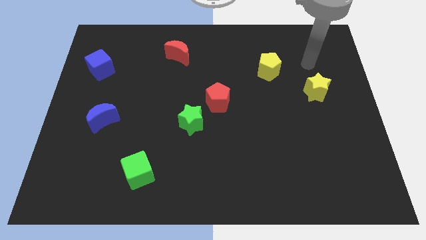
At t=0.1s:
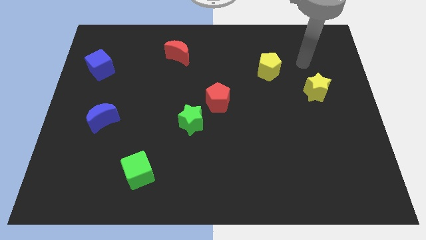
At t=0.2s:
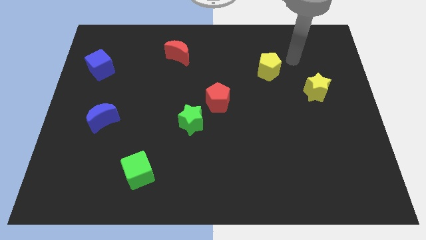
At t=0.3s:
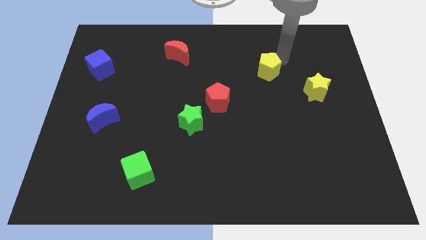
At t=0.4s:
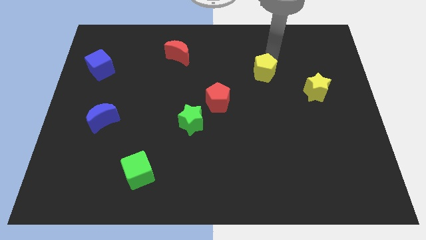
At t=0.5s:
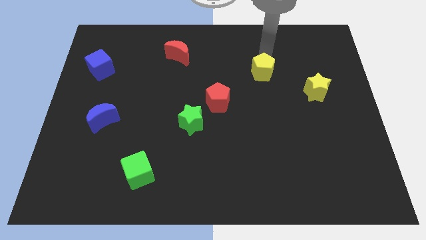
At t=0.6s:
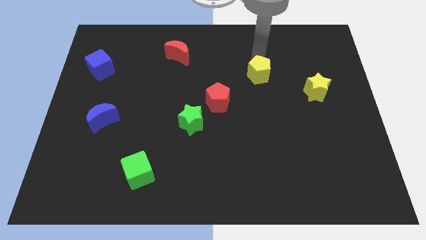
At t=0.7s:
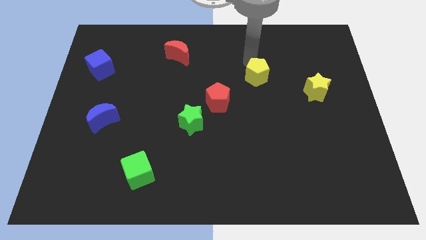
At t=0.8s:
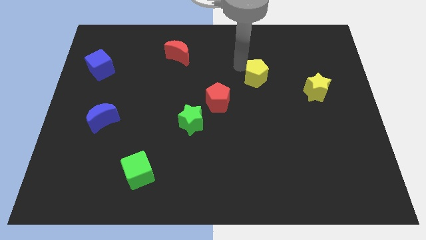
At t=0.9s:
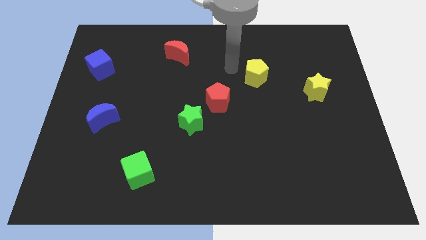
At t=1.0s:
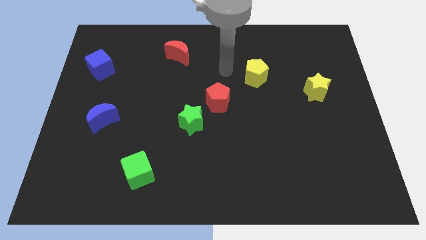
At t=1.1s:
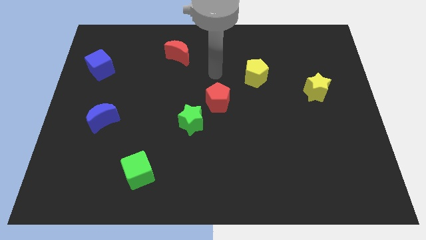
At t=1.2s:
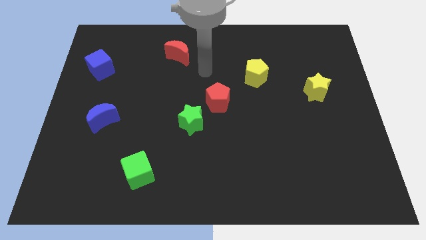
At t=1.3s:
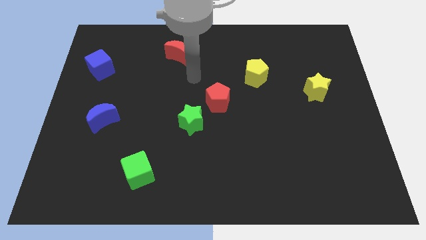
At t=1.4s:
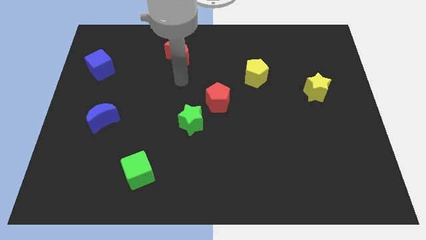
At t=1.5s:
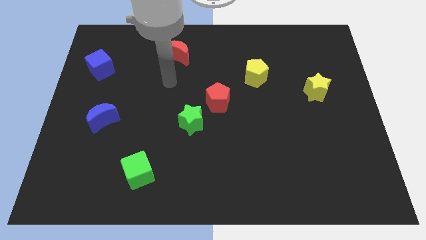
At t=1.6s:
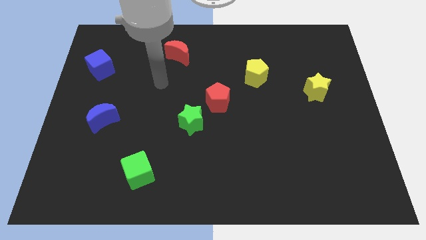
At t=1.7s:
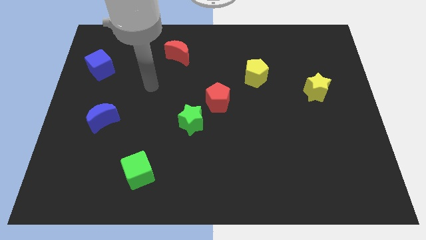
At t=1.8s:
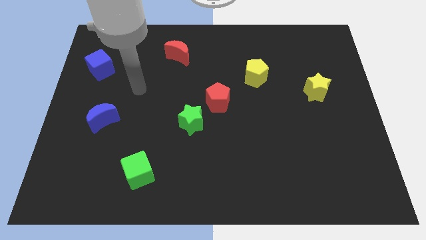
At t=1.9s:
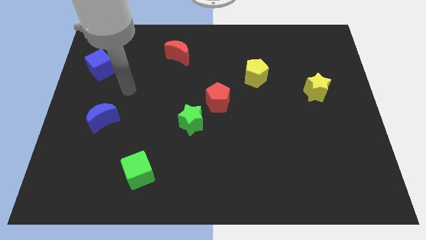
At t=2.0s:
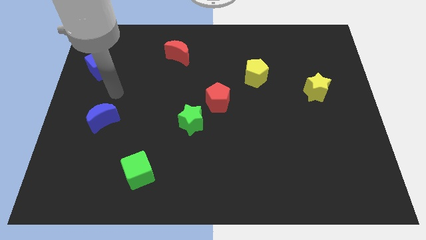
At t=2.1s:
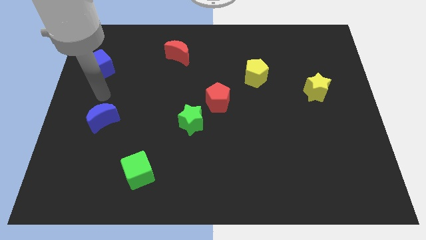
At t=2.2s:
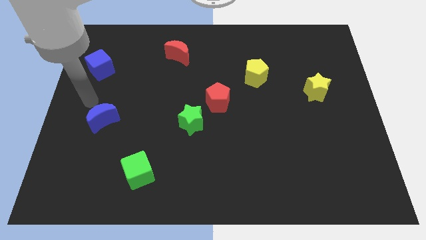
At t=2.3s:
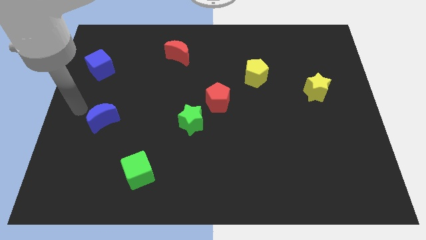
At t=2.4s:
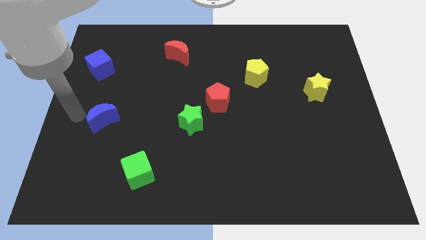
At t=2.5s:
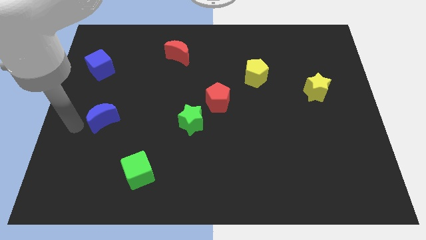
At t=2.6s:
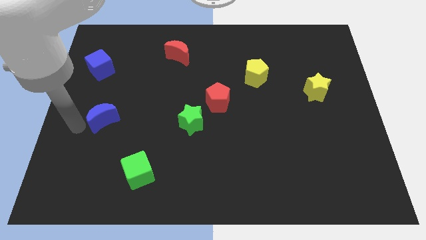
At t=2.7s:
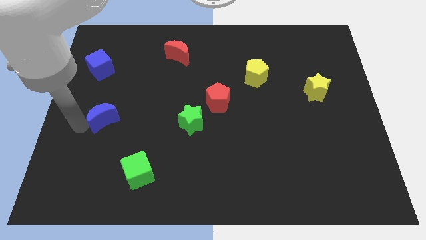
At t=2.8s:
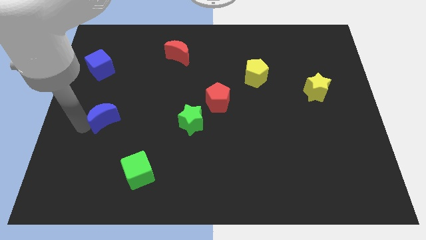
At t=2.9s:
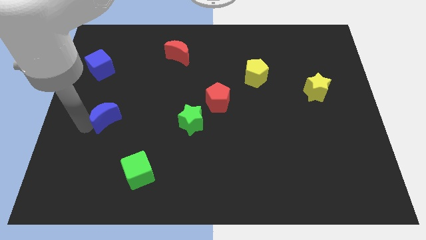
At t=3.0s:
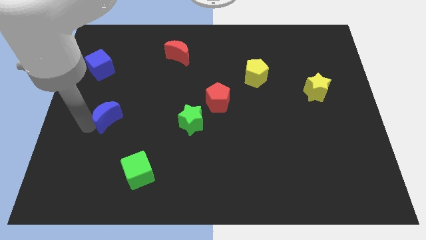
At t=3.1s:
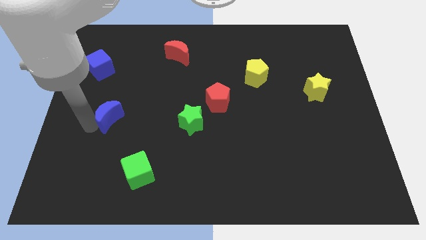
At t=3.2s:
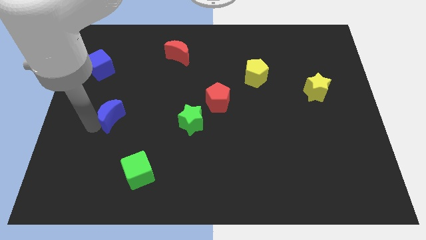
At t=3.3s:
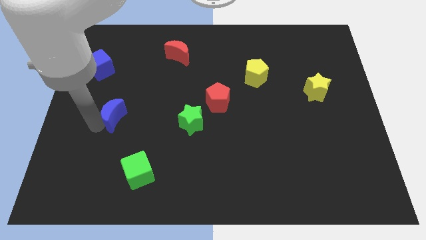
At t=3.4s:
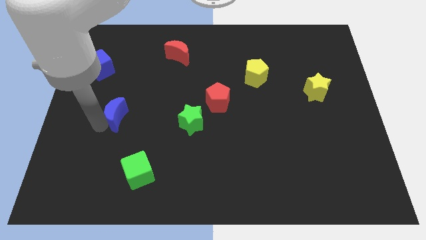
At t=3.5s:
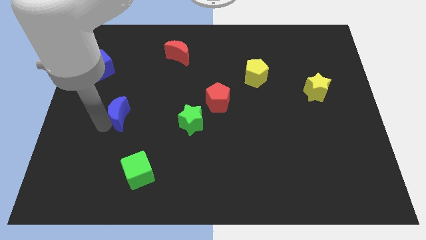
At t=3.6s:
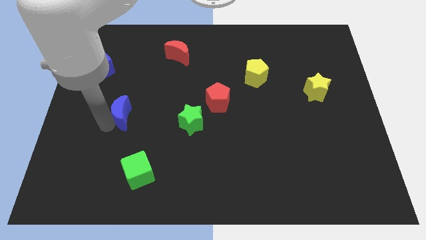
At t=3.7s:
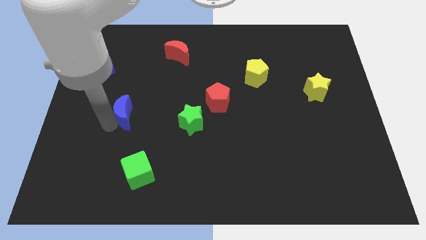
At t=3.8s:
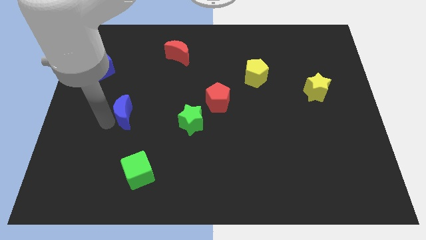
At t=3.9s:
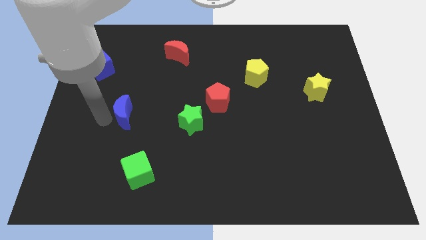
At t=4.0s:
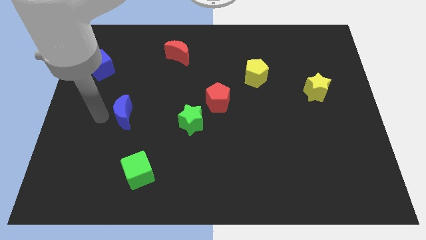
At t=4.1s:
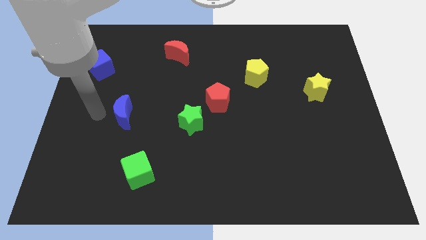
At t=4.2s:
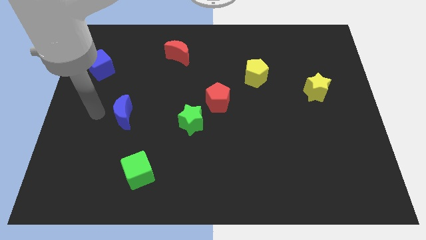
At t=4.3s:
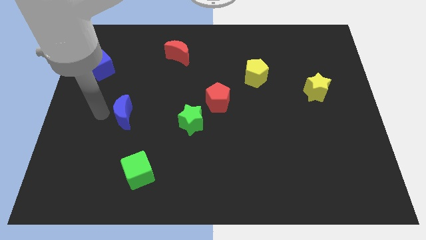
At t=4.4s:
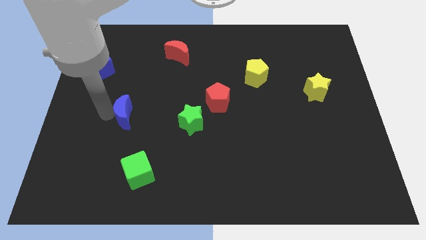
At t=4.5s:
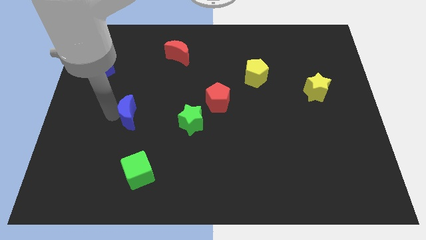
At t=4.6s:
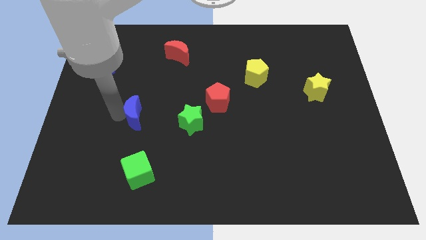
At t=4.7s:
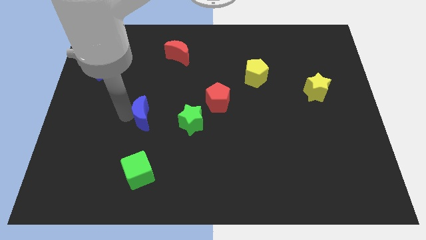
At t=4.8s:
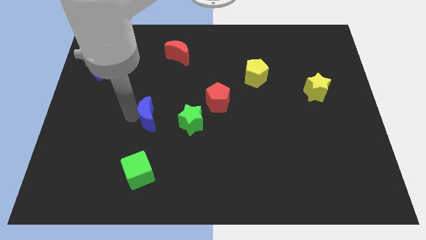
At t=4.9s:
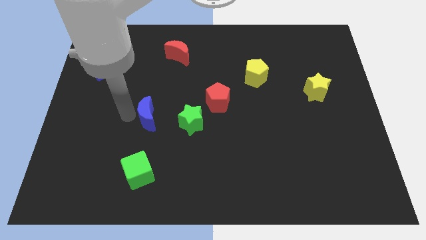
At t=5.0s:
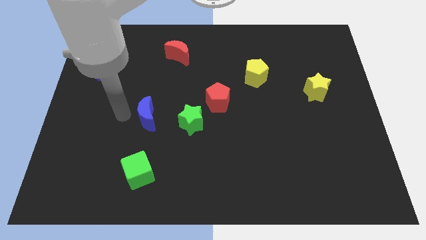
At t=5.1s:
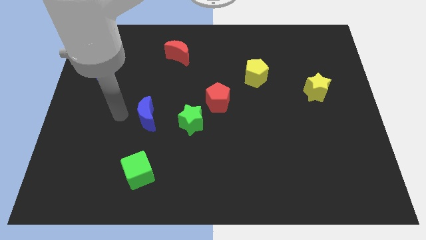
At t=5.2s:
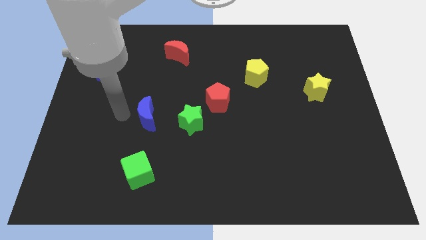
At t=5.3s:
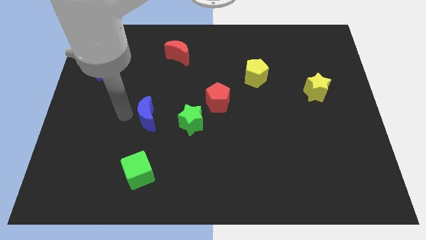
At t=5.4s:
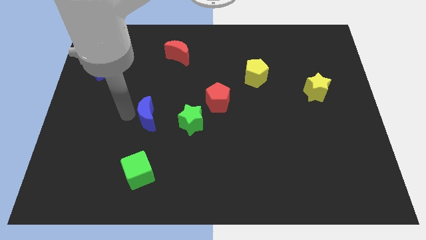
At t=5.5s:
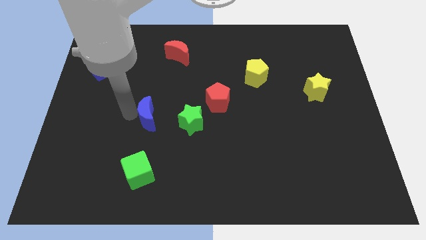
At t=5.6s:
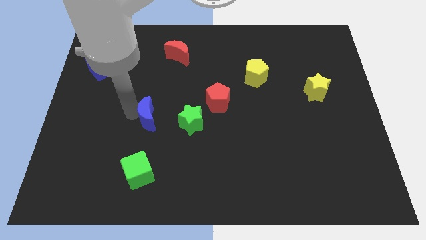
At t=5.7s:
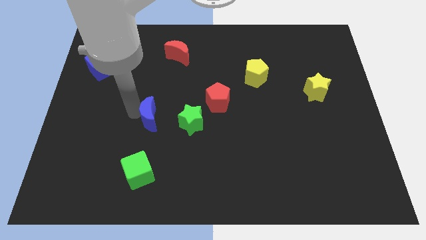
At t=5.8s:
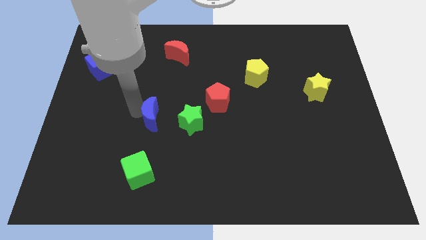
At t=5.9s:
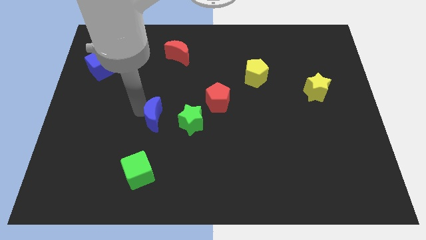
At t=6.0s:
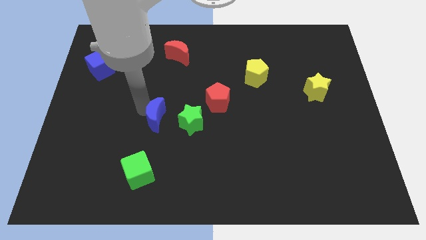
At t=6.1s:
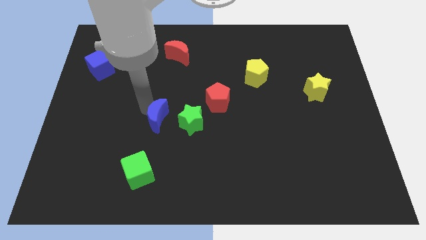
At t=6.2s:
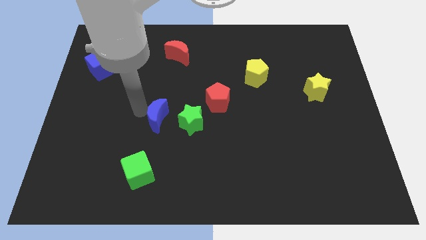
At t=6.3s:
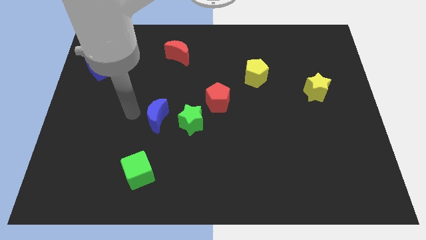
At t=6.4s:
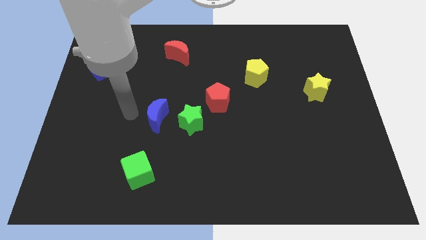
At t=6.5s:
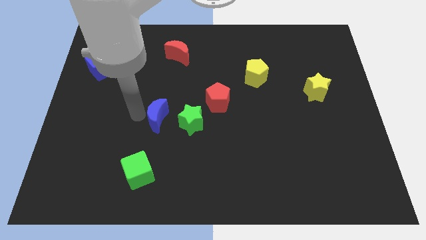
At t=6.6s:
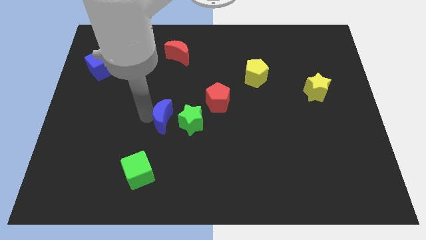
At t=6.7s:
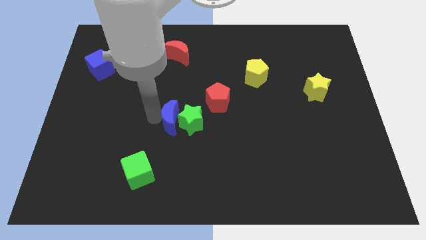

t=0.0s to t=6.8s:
push the blue moon next to the green star

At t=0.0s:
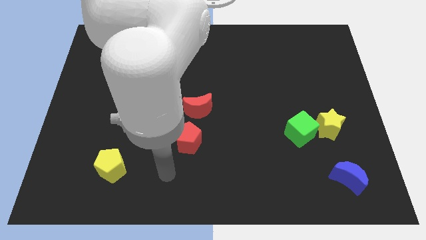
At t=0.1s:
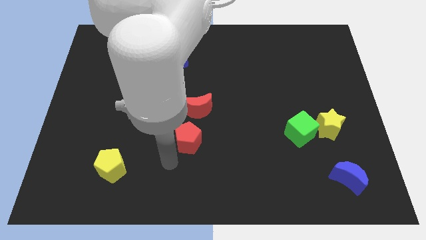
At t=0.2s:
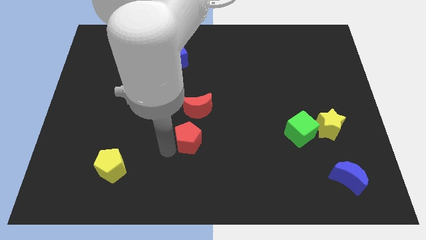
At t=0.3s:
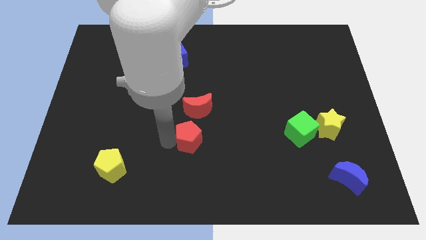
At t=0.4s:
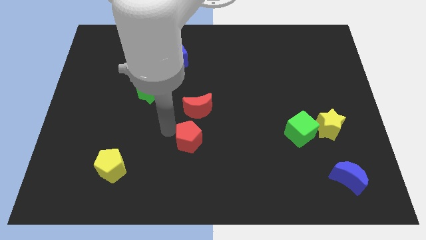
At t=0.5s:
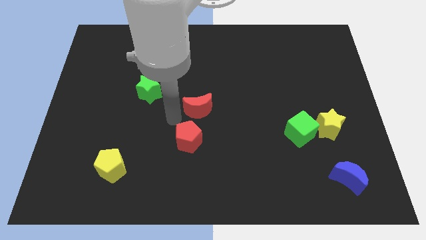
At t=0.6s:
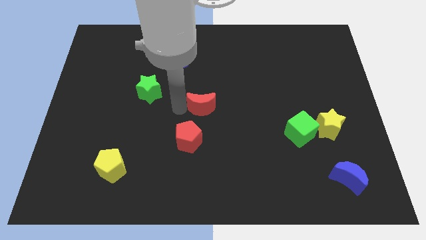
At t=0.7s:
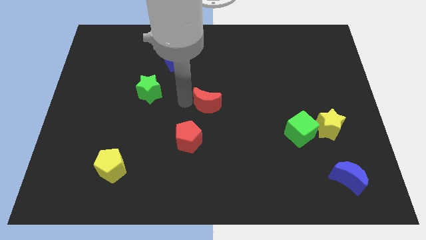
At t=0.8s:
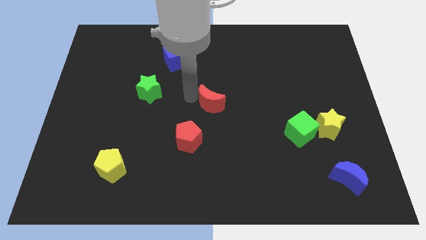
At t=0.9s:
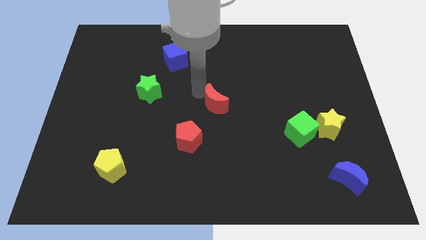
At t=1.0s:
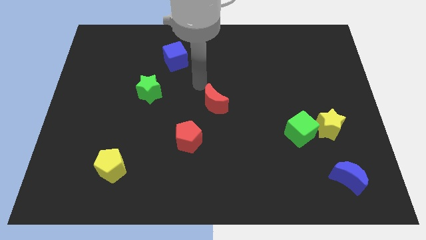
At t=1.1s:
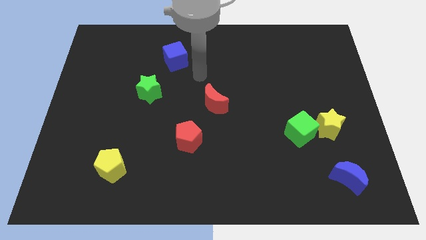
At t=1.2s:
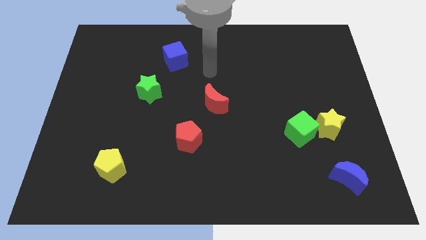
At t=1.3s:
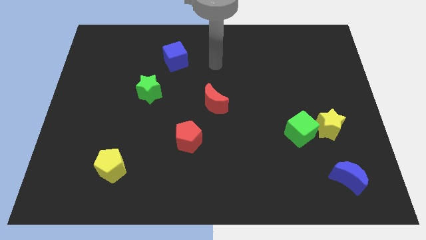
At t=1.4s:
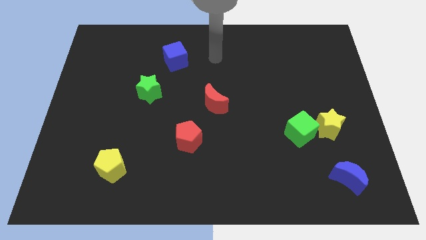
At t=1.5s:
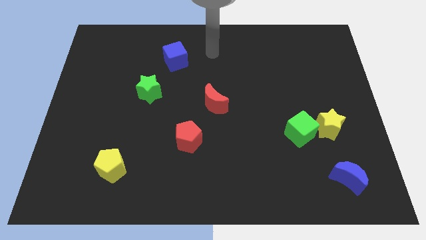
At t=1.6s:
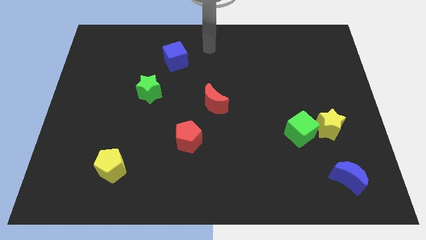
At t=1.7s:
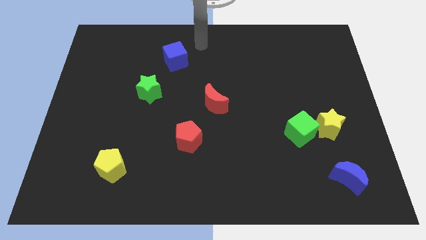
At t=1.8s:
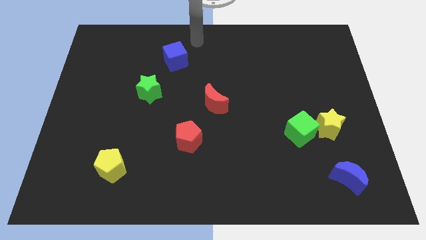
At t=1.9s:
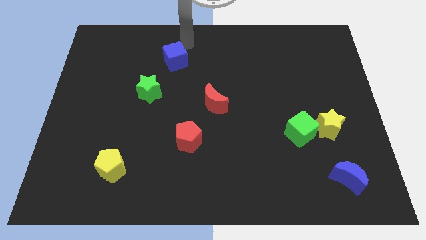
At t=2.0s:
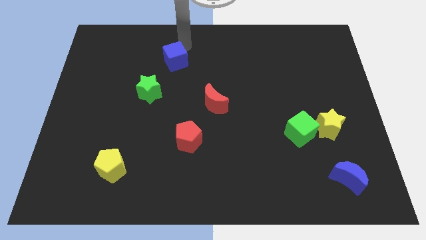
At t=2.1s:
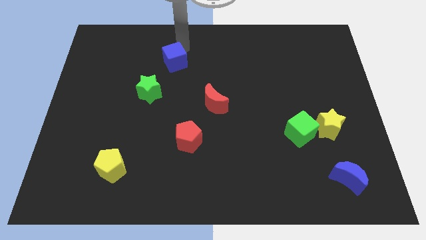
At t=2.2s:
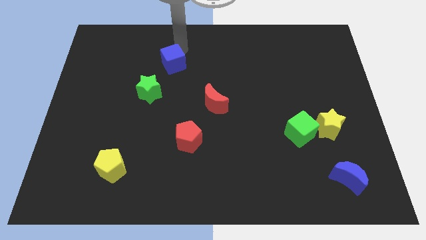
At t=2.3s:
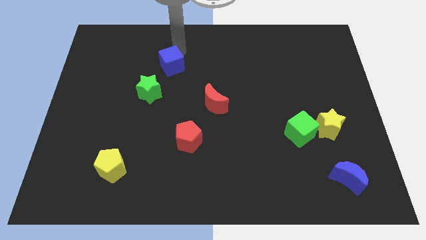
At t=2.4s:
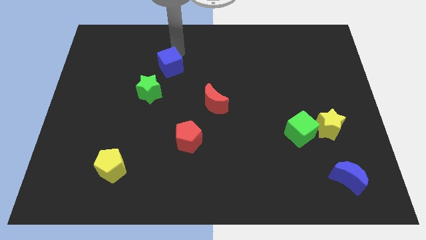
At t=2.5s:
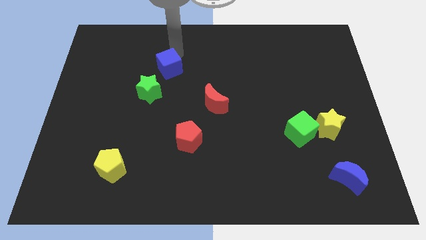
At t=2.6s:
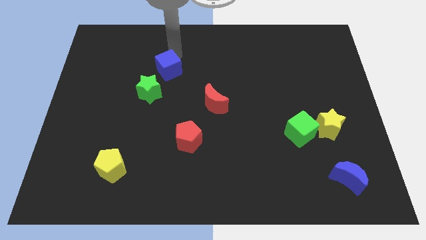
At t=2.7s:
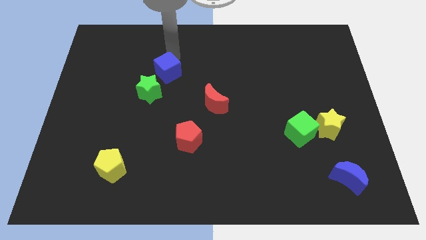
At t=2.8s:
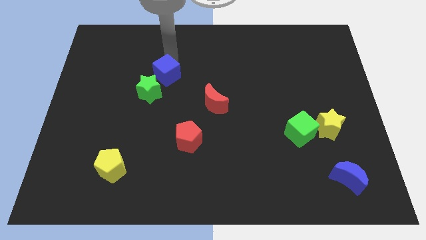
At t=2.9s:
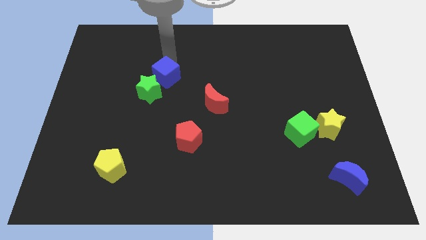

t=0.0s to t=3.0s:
move the blue cube to the green star
